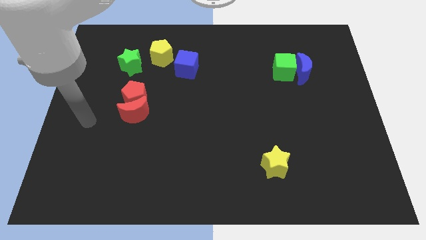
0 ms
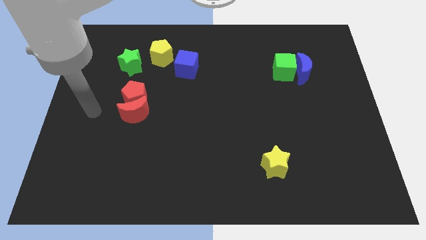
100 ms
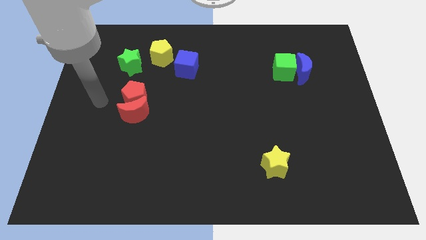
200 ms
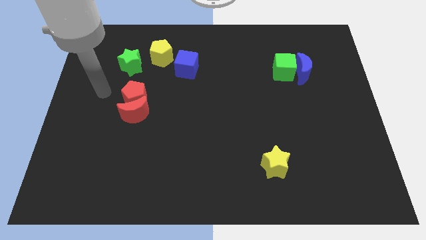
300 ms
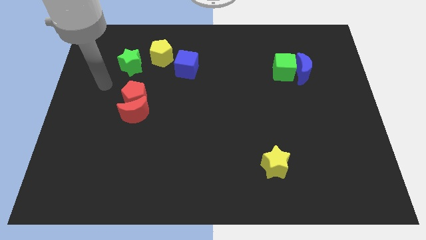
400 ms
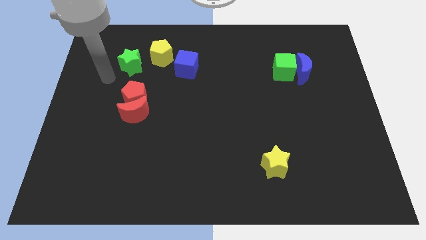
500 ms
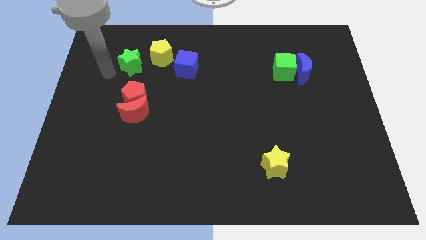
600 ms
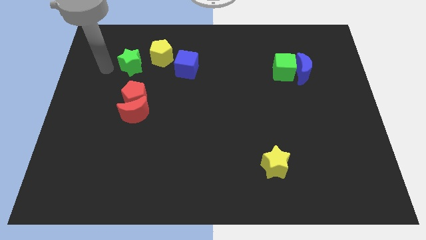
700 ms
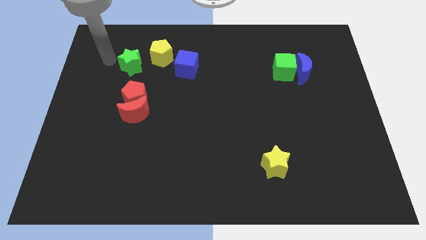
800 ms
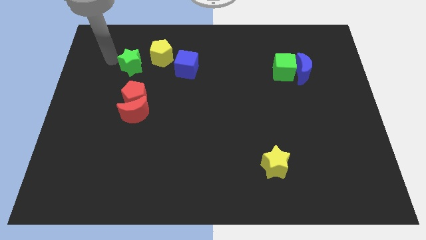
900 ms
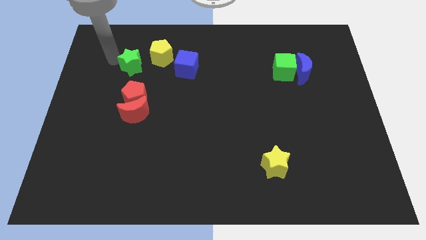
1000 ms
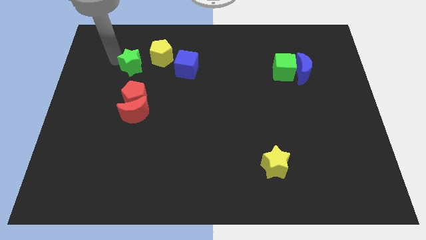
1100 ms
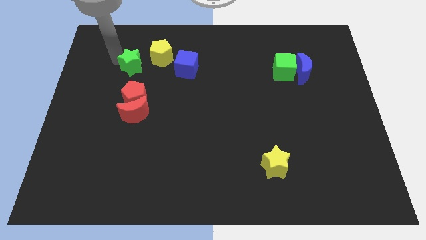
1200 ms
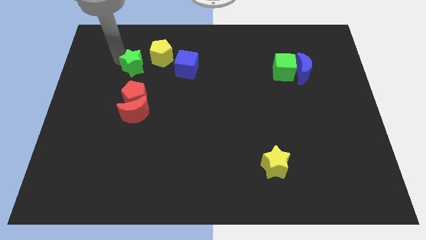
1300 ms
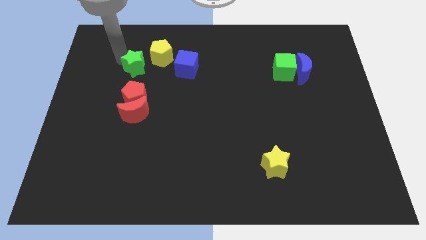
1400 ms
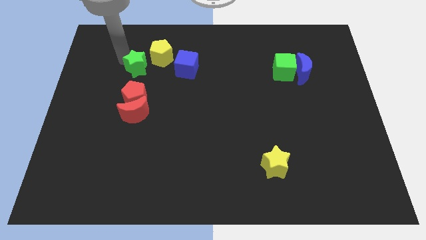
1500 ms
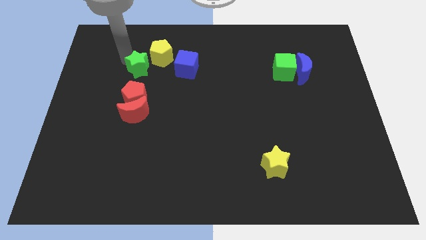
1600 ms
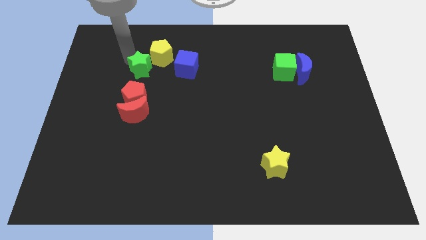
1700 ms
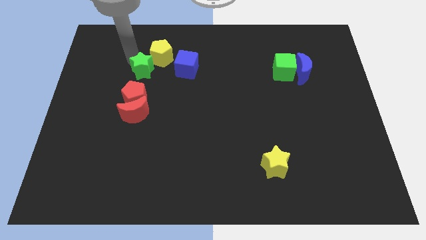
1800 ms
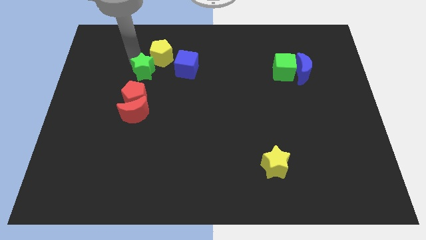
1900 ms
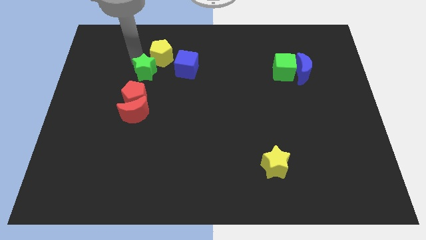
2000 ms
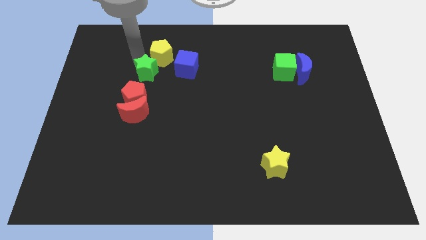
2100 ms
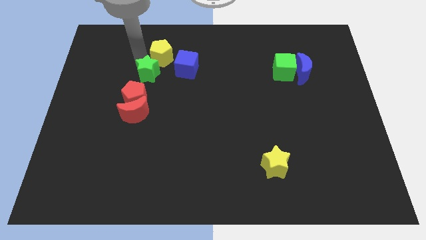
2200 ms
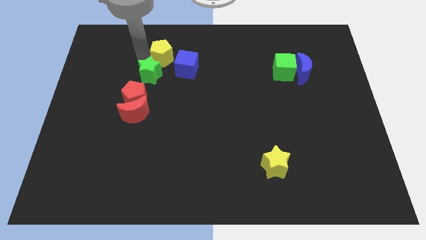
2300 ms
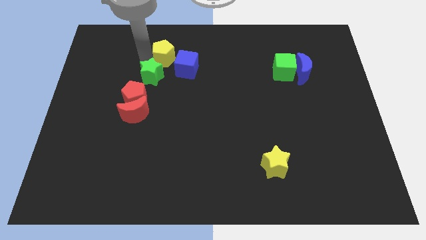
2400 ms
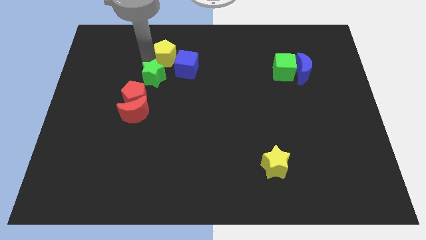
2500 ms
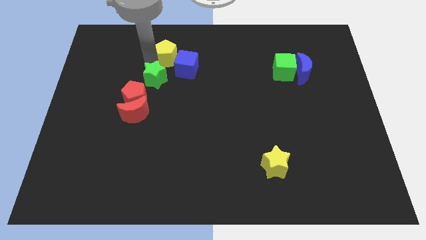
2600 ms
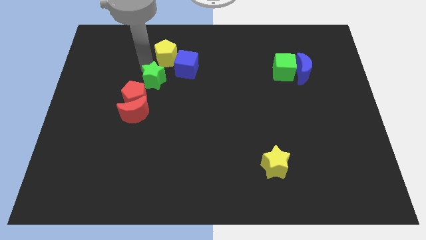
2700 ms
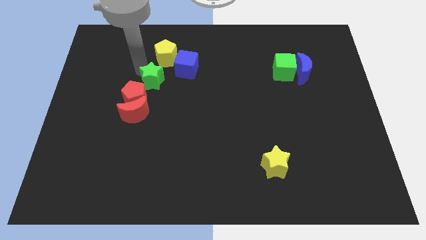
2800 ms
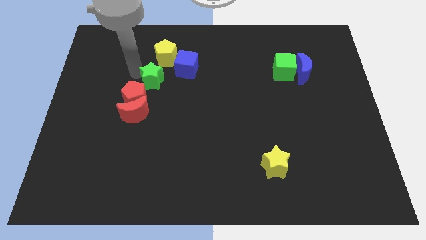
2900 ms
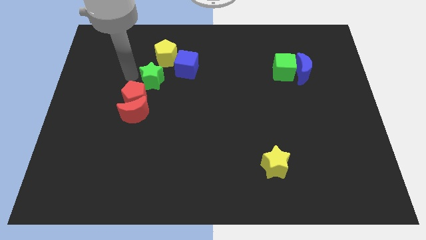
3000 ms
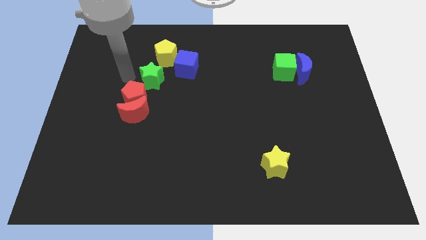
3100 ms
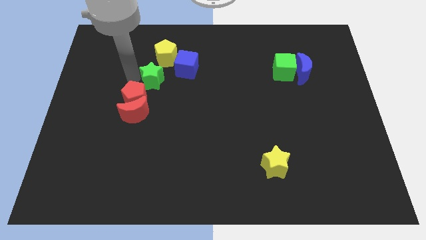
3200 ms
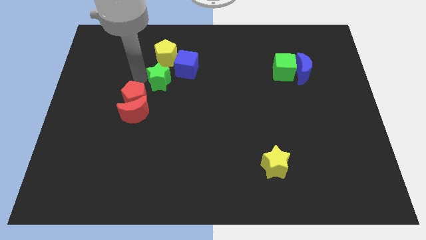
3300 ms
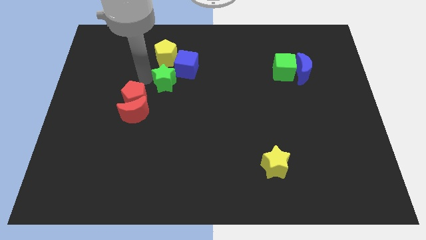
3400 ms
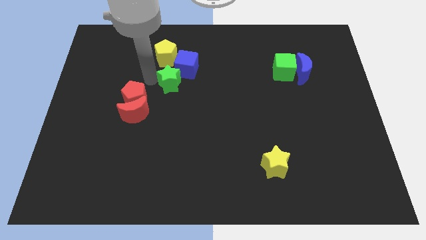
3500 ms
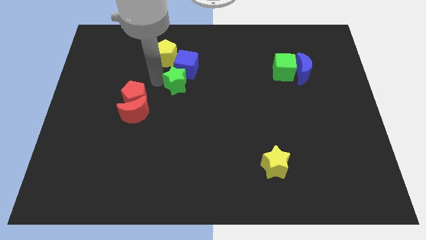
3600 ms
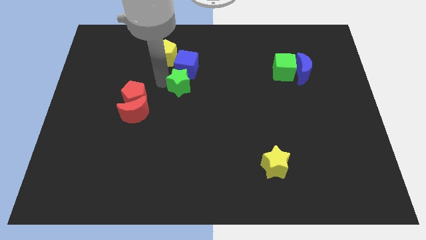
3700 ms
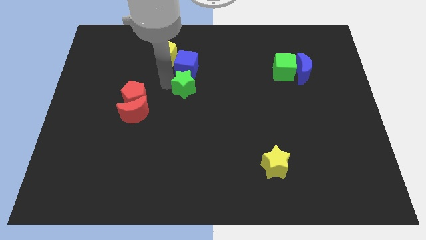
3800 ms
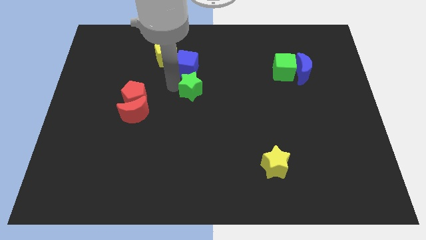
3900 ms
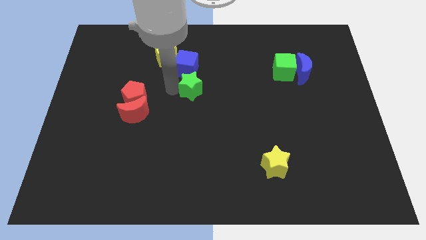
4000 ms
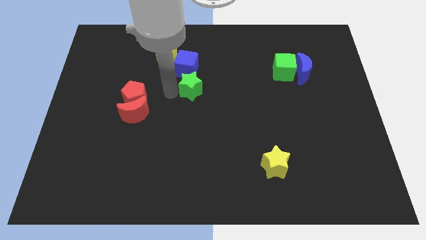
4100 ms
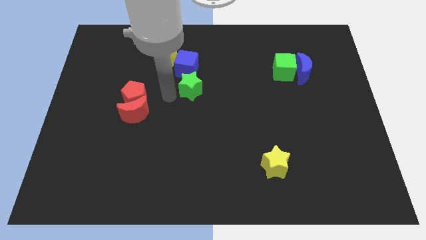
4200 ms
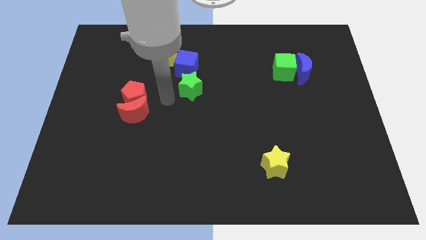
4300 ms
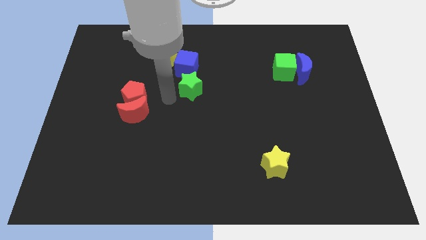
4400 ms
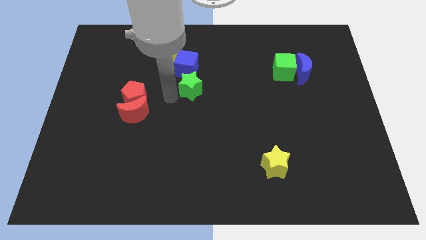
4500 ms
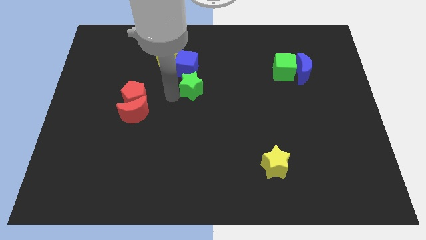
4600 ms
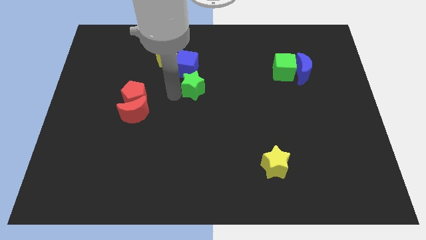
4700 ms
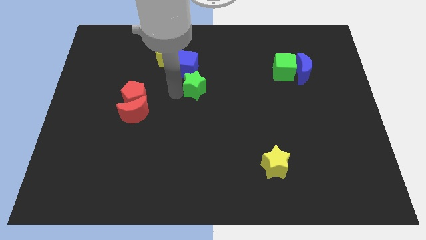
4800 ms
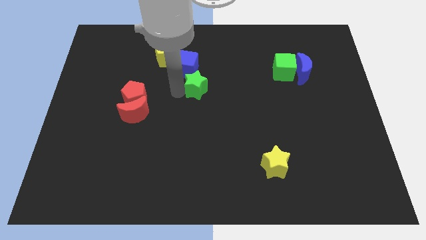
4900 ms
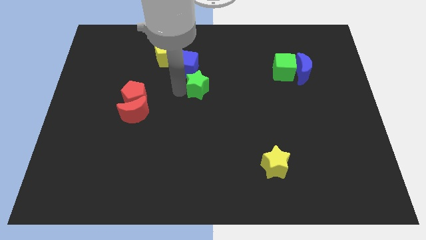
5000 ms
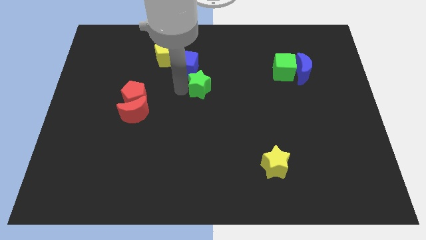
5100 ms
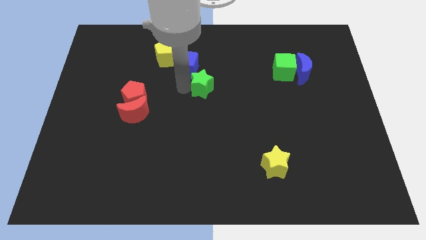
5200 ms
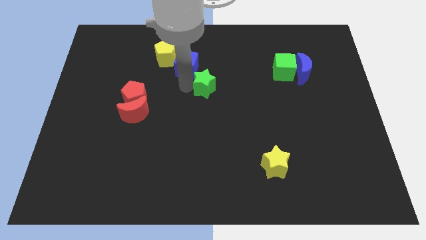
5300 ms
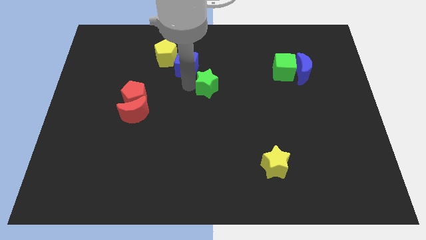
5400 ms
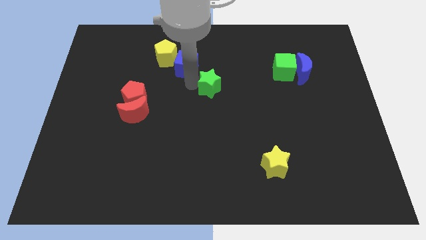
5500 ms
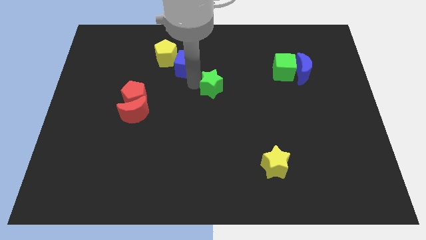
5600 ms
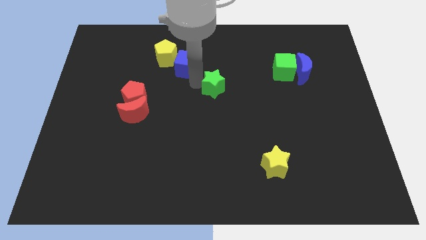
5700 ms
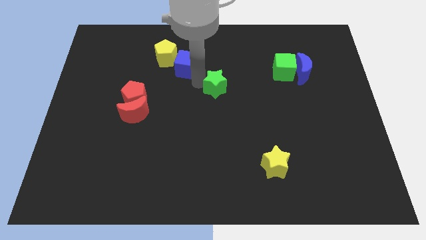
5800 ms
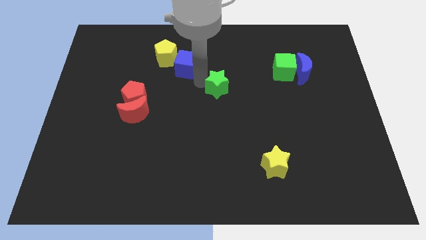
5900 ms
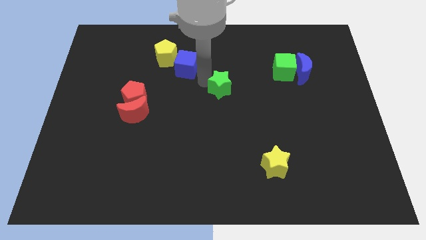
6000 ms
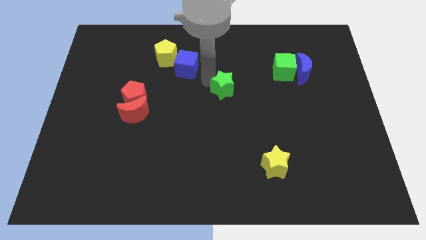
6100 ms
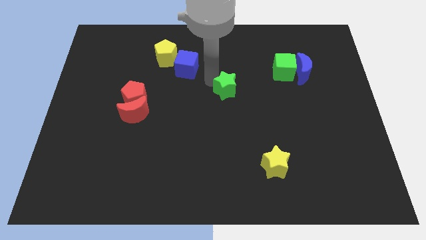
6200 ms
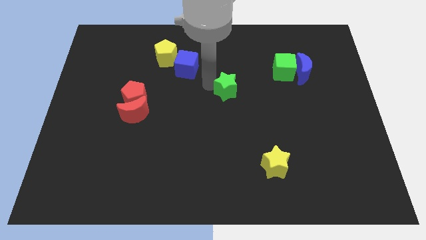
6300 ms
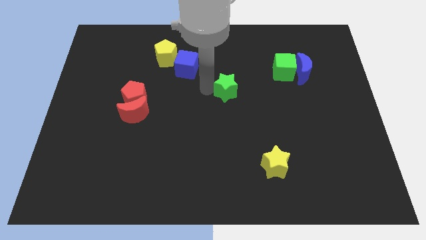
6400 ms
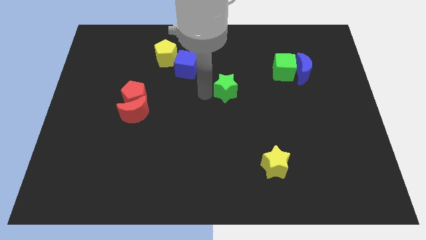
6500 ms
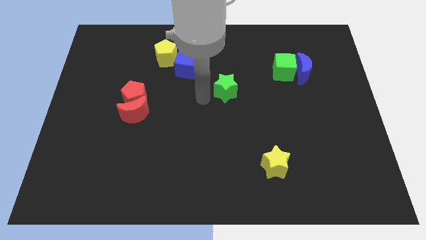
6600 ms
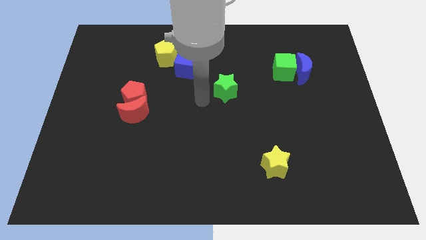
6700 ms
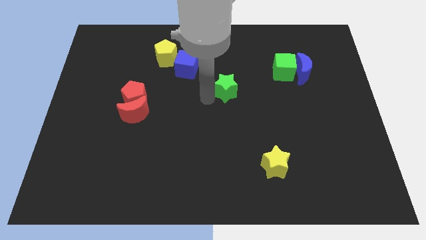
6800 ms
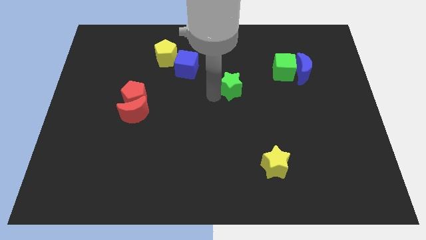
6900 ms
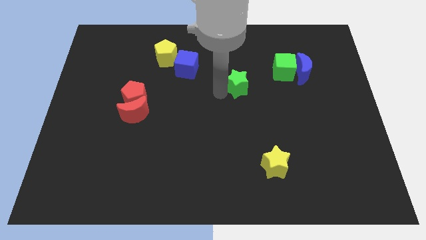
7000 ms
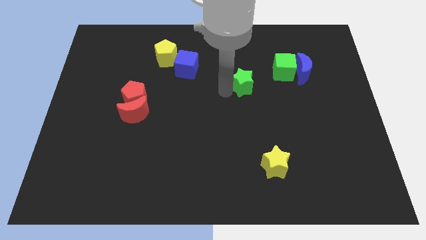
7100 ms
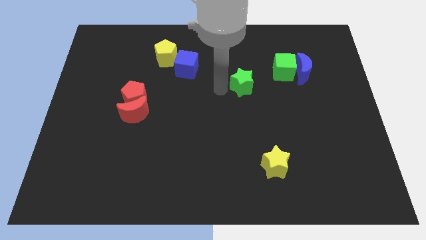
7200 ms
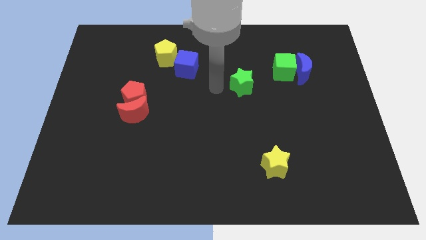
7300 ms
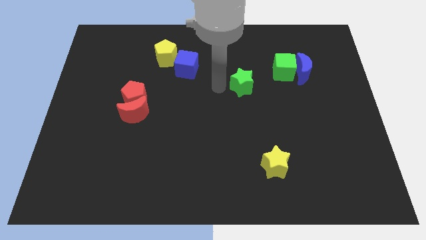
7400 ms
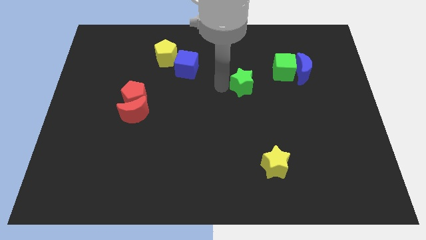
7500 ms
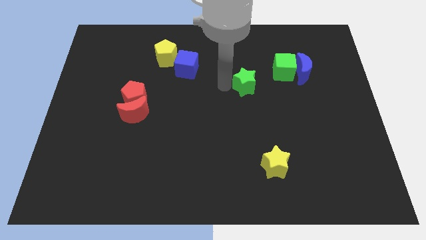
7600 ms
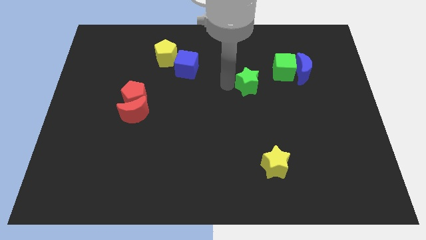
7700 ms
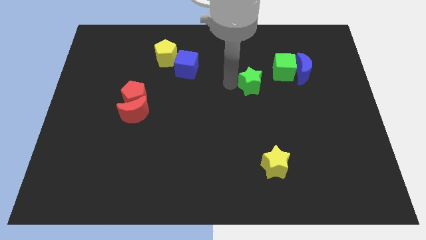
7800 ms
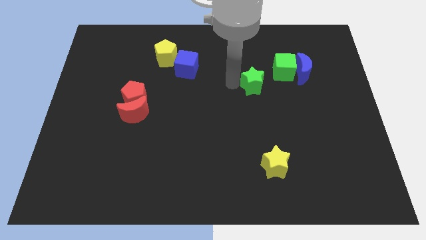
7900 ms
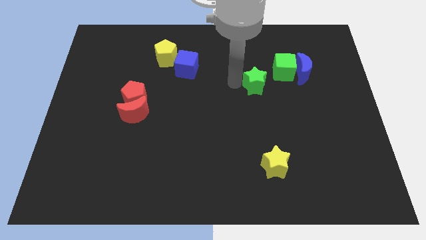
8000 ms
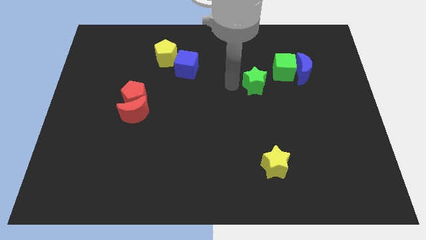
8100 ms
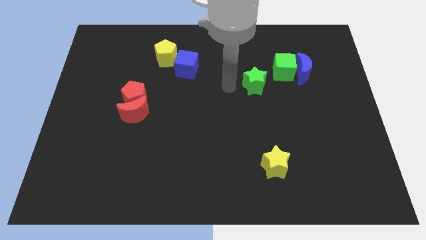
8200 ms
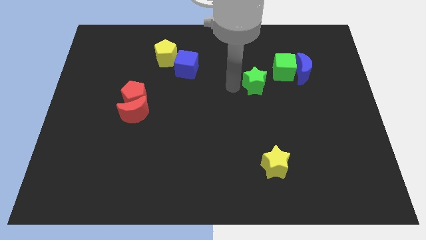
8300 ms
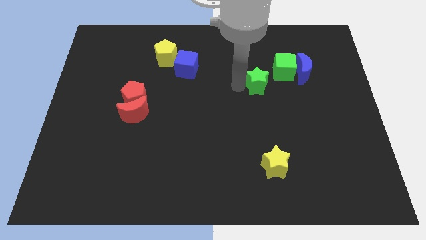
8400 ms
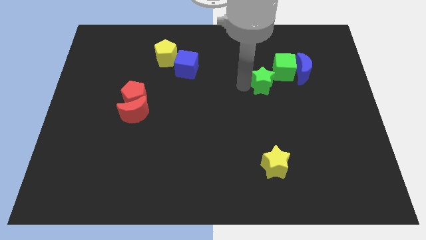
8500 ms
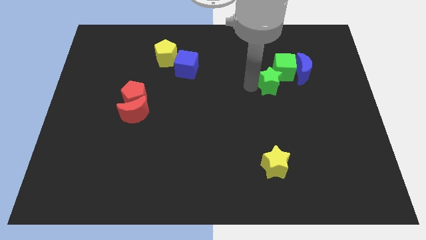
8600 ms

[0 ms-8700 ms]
push the green star close to the green cube
